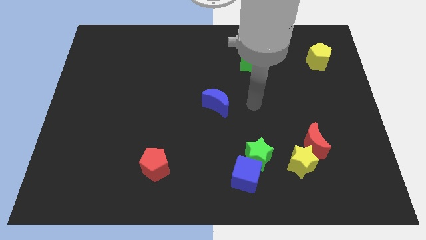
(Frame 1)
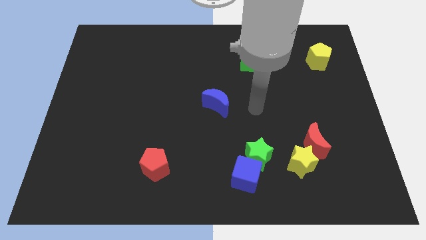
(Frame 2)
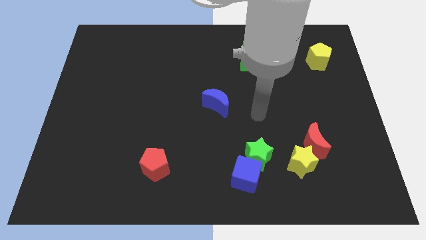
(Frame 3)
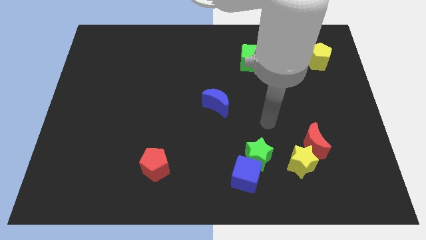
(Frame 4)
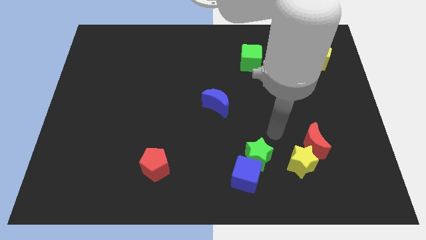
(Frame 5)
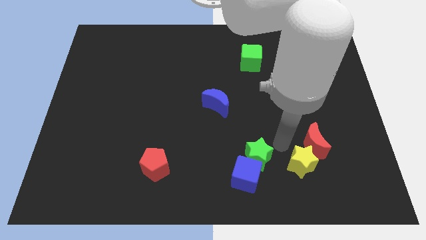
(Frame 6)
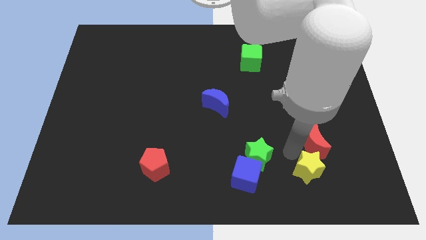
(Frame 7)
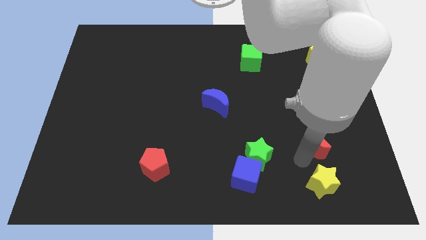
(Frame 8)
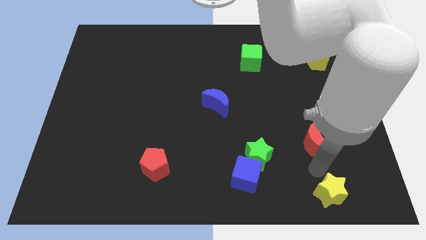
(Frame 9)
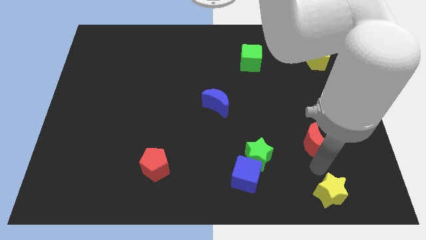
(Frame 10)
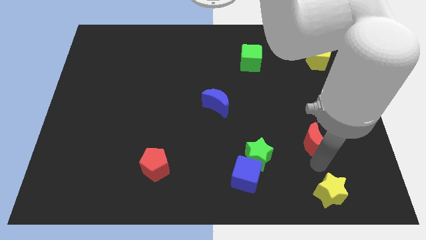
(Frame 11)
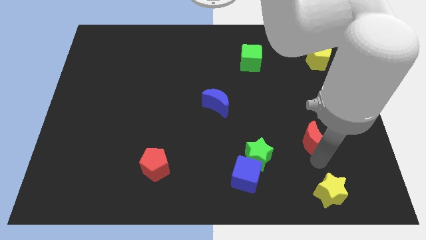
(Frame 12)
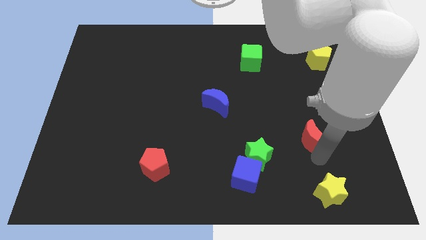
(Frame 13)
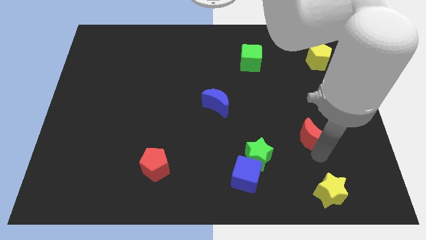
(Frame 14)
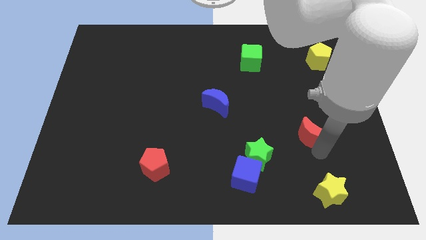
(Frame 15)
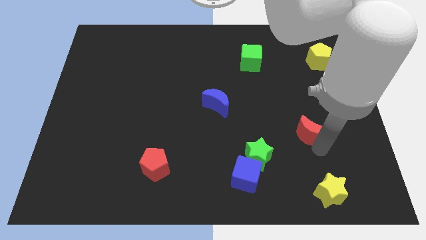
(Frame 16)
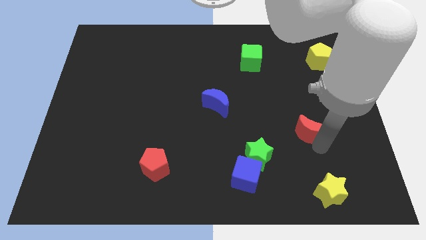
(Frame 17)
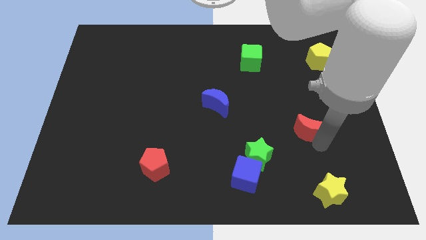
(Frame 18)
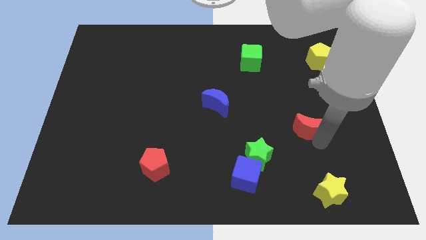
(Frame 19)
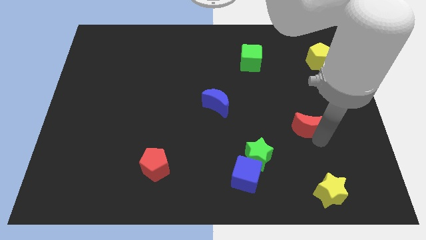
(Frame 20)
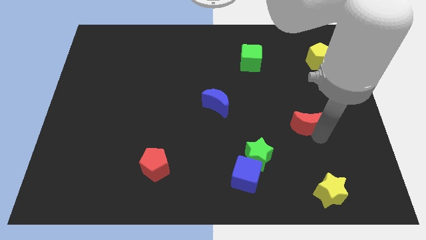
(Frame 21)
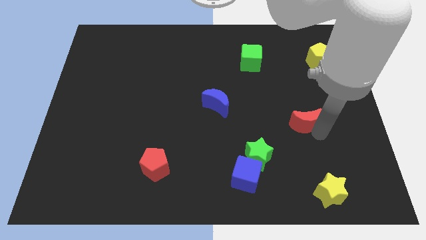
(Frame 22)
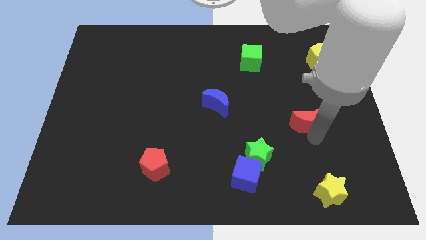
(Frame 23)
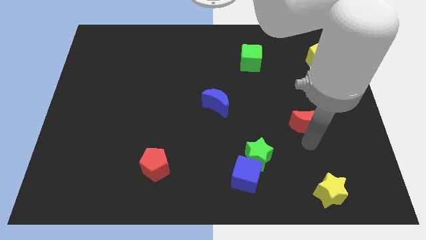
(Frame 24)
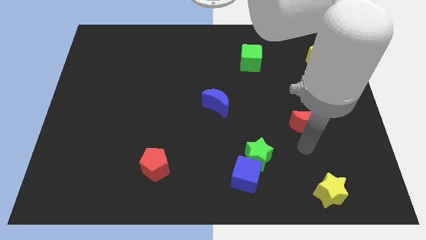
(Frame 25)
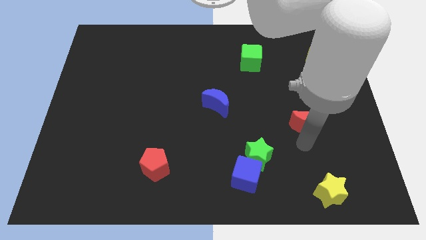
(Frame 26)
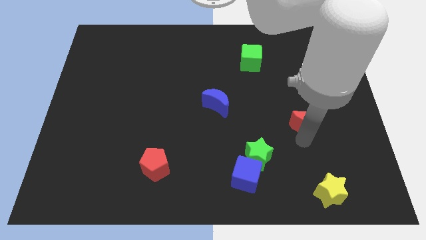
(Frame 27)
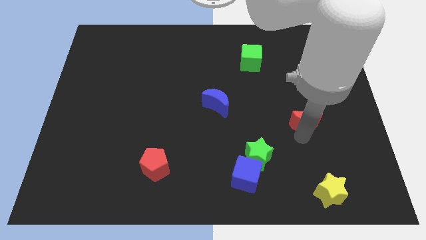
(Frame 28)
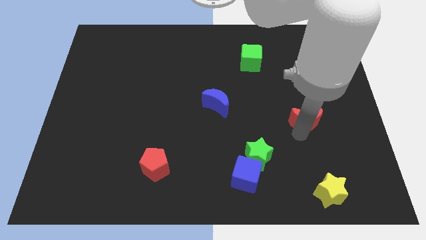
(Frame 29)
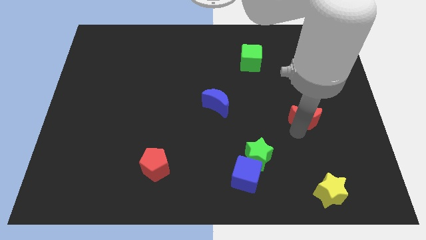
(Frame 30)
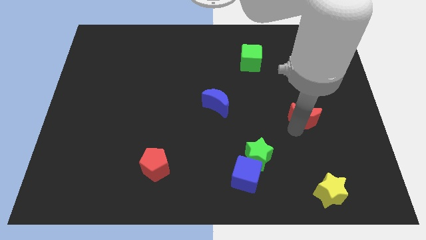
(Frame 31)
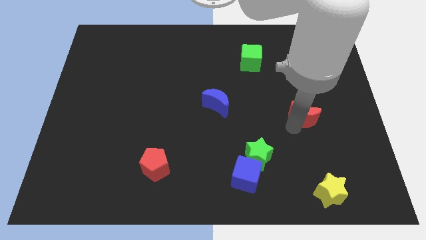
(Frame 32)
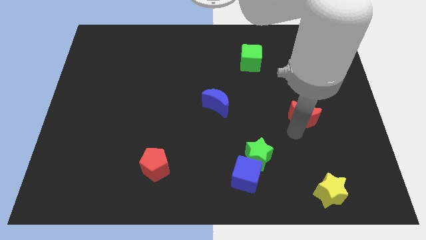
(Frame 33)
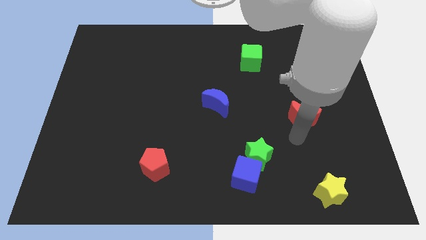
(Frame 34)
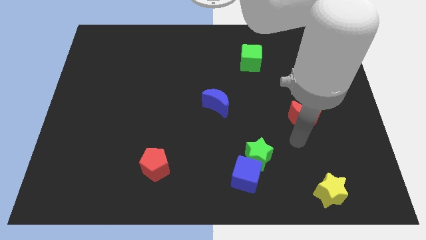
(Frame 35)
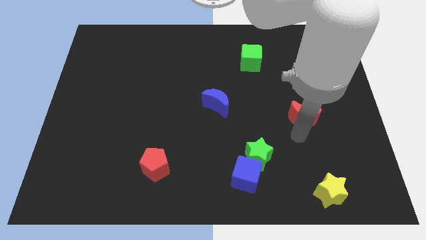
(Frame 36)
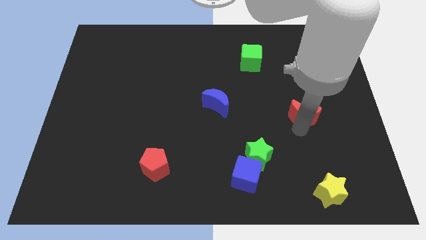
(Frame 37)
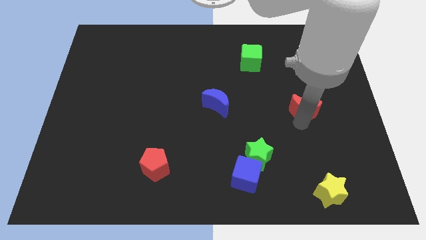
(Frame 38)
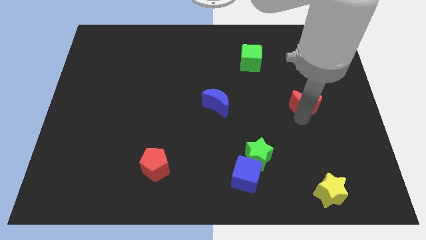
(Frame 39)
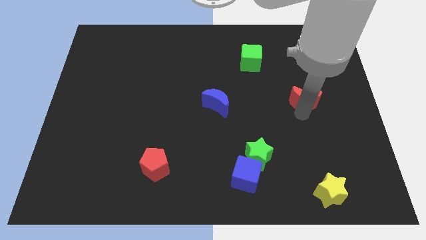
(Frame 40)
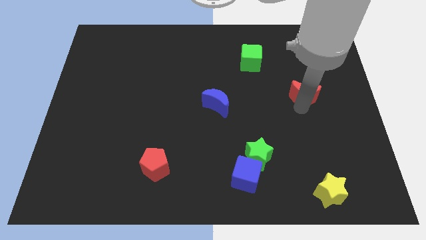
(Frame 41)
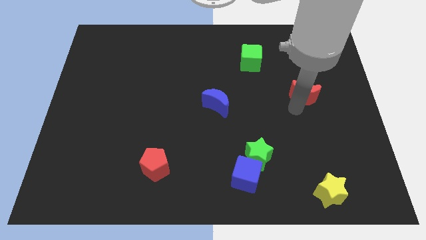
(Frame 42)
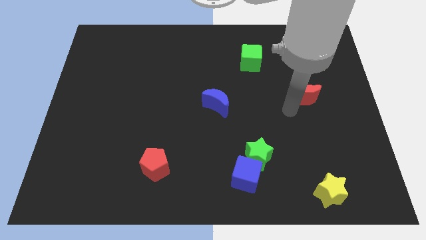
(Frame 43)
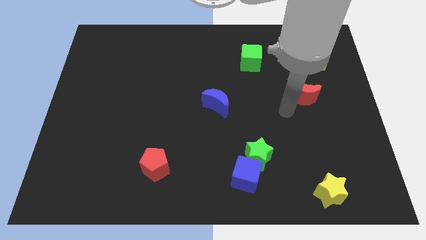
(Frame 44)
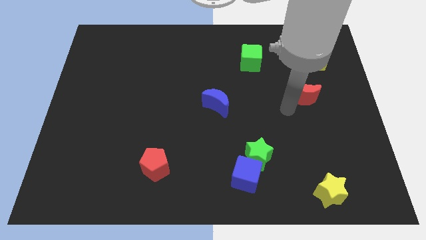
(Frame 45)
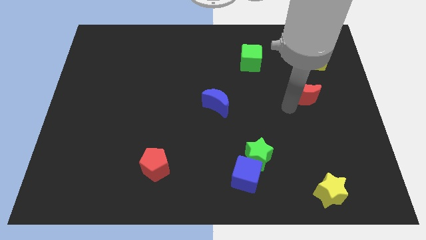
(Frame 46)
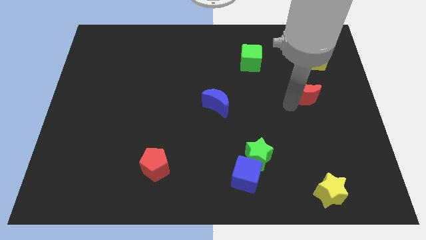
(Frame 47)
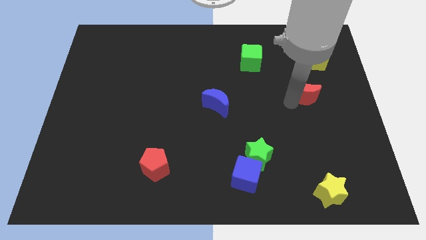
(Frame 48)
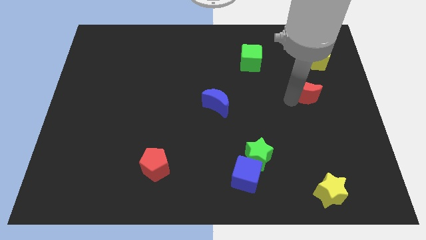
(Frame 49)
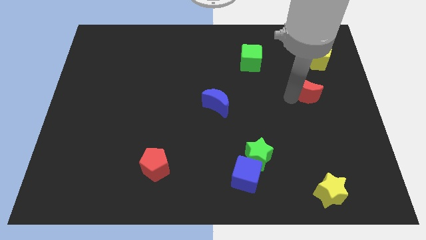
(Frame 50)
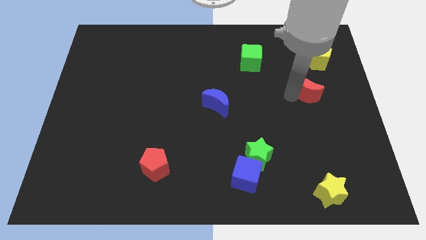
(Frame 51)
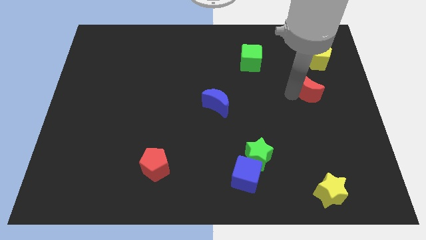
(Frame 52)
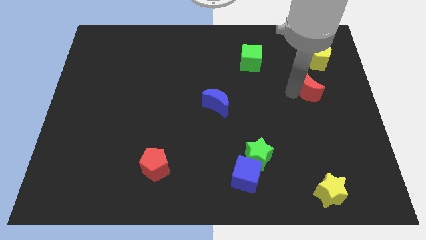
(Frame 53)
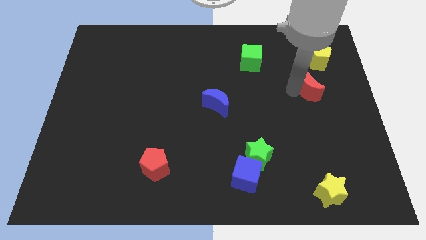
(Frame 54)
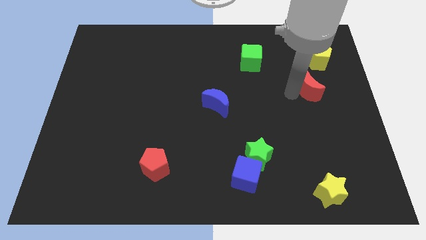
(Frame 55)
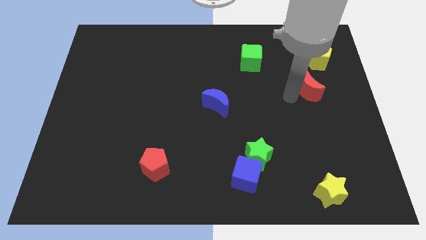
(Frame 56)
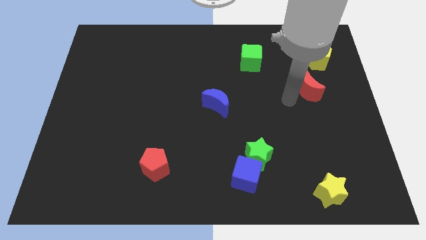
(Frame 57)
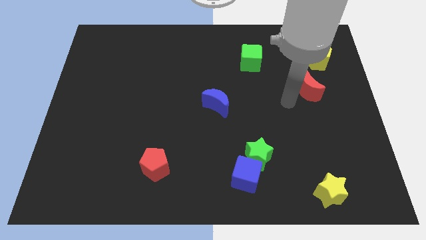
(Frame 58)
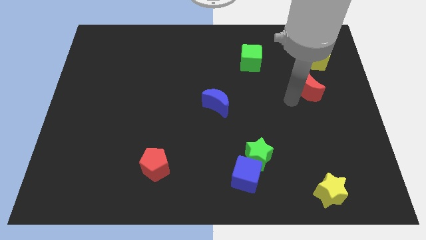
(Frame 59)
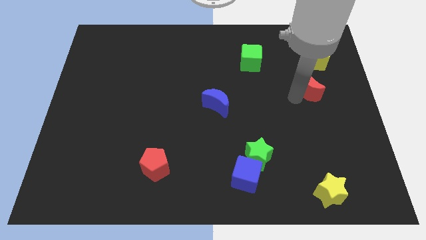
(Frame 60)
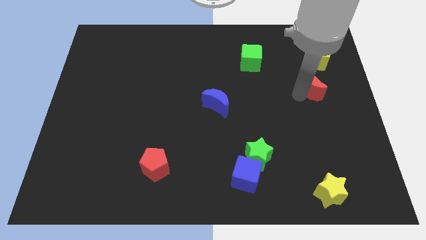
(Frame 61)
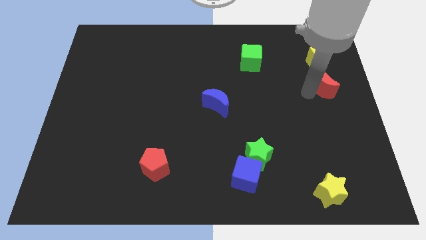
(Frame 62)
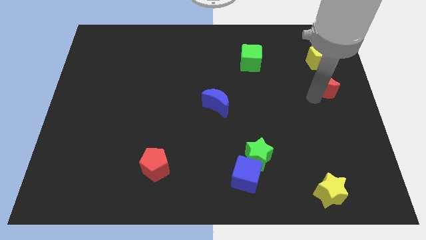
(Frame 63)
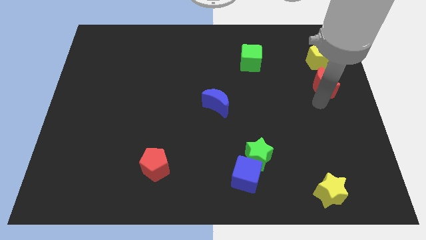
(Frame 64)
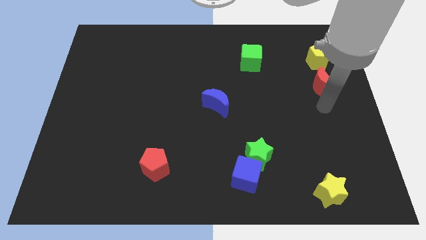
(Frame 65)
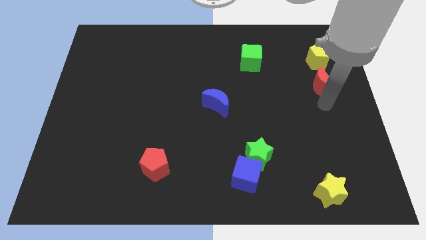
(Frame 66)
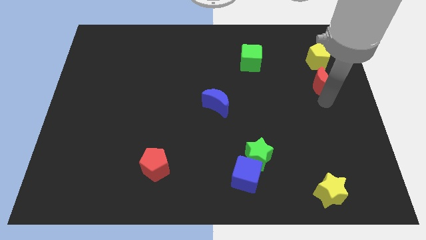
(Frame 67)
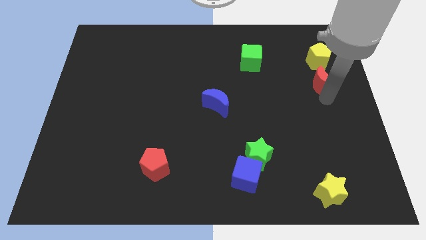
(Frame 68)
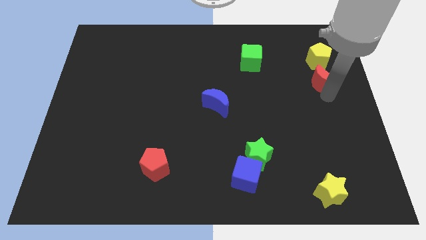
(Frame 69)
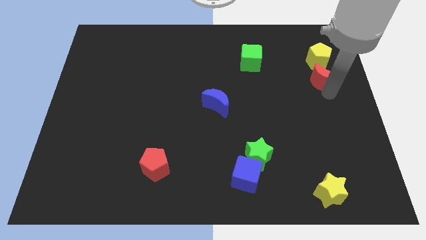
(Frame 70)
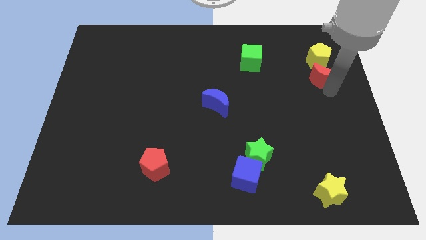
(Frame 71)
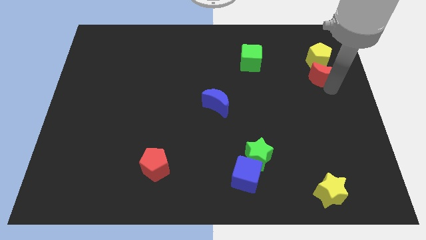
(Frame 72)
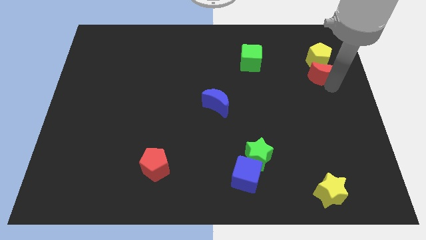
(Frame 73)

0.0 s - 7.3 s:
move the red moon towards the yellow pentagon
